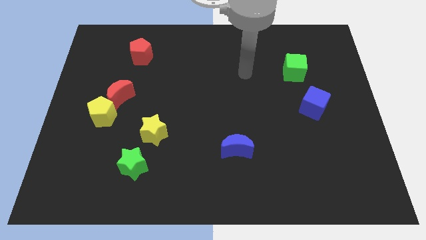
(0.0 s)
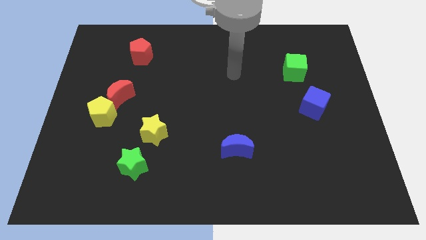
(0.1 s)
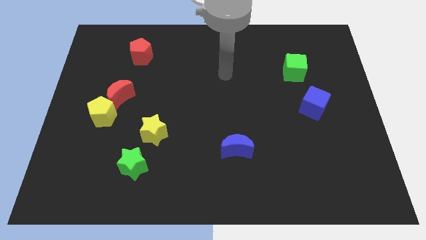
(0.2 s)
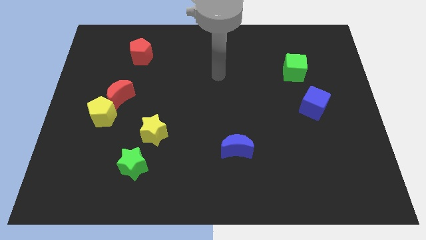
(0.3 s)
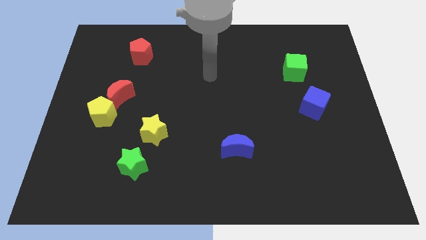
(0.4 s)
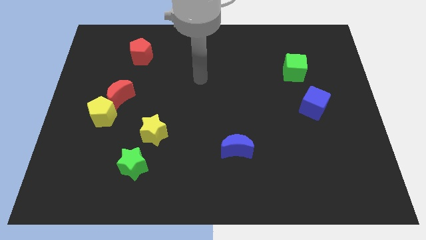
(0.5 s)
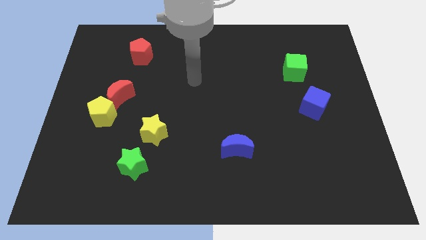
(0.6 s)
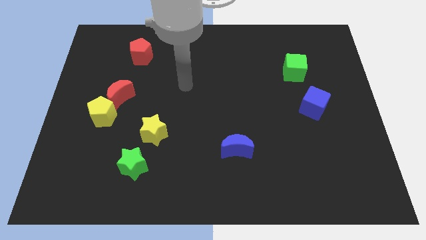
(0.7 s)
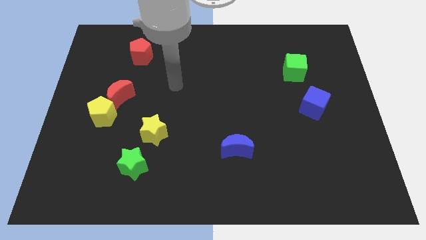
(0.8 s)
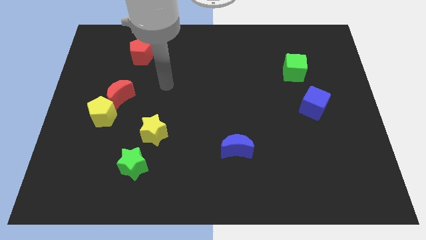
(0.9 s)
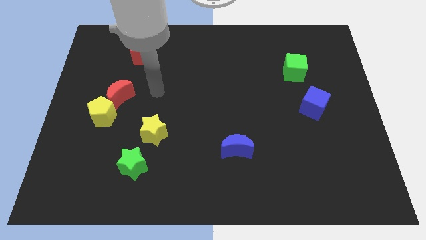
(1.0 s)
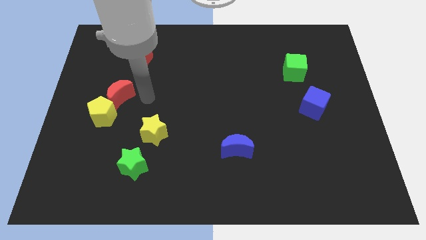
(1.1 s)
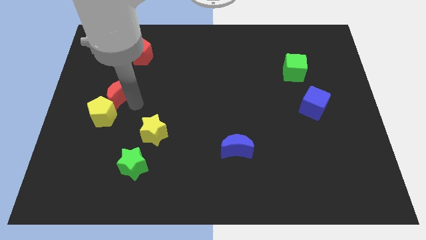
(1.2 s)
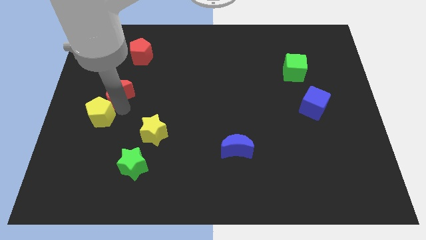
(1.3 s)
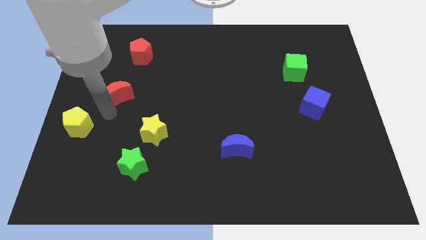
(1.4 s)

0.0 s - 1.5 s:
pull the red moon apart from the yellow pentagon

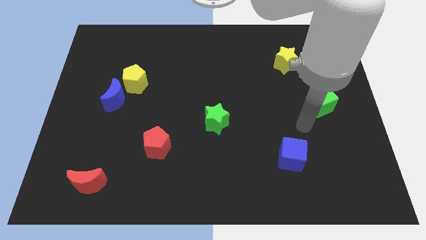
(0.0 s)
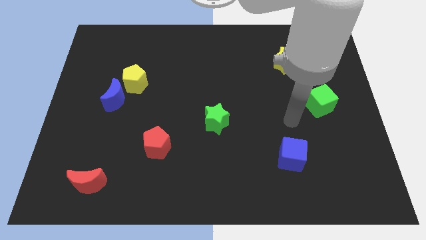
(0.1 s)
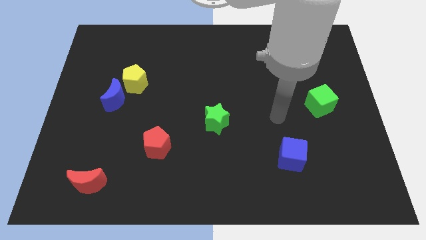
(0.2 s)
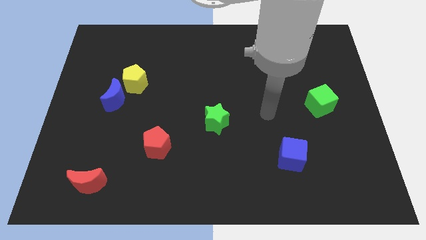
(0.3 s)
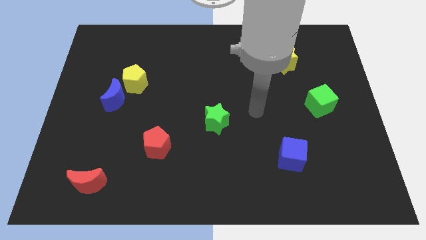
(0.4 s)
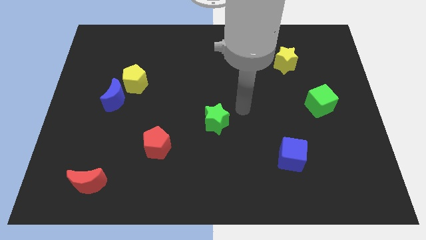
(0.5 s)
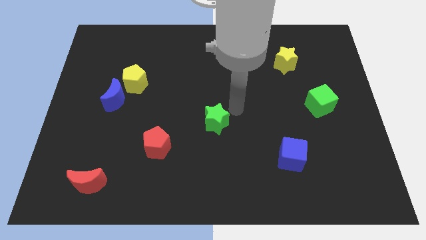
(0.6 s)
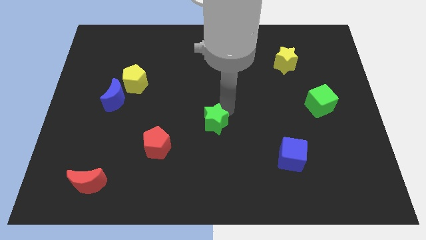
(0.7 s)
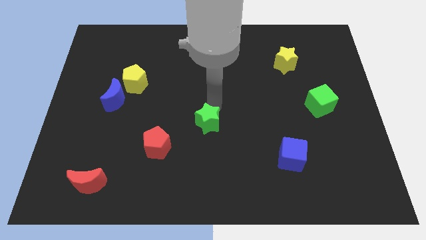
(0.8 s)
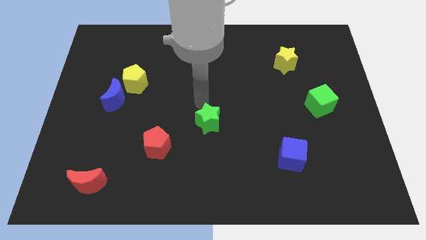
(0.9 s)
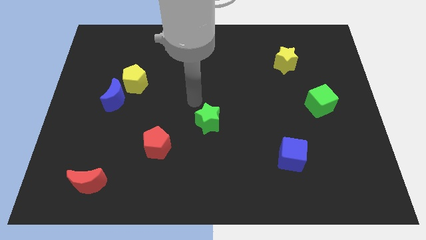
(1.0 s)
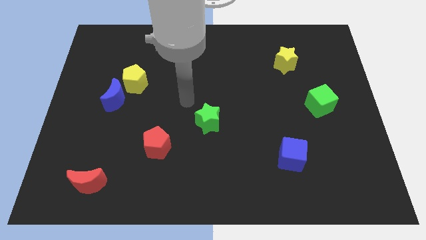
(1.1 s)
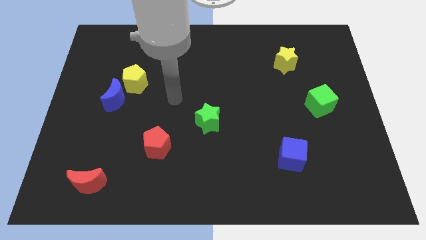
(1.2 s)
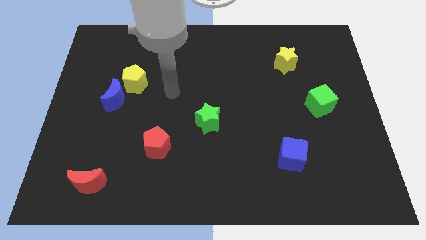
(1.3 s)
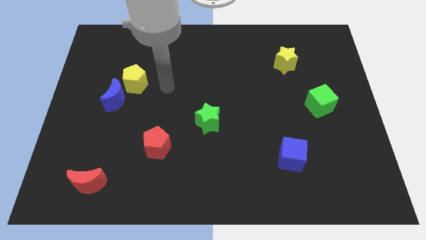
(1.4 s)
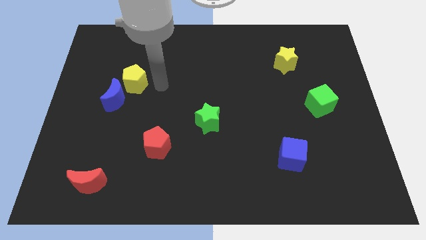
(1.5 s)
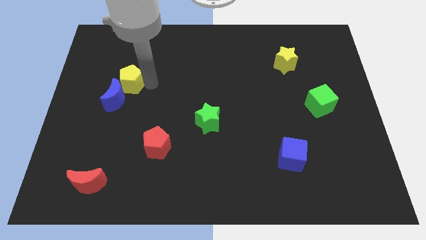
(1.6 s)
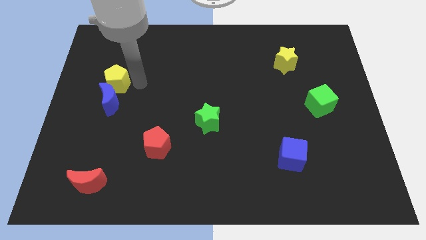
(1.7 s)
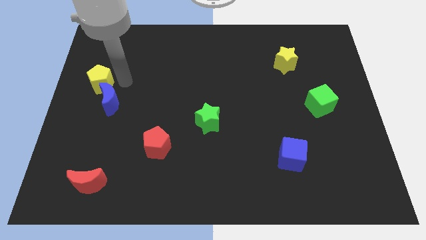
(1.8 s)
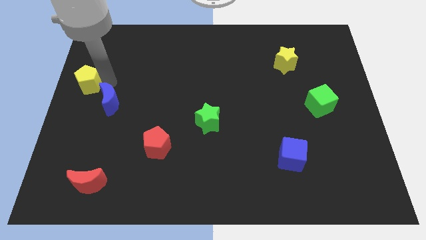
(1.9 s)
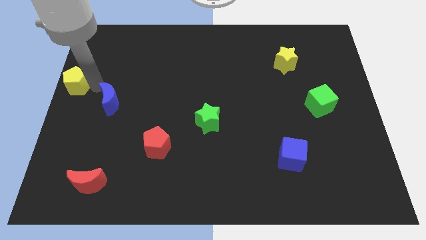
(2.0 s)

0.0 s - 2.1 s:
move the blue moon away from the yellow pentagon

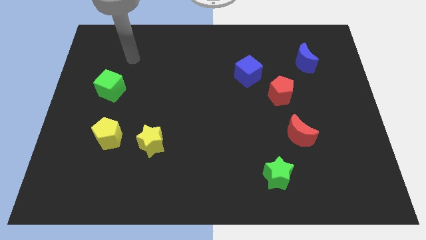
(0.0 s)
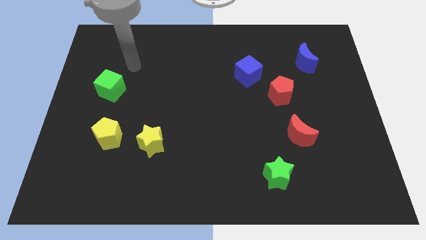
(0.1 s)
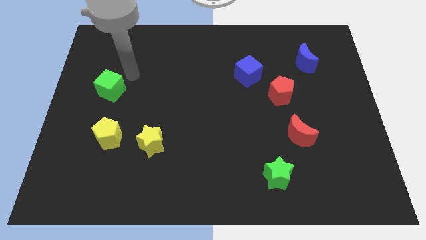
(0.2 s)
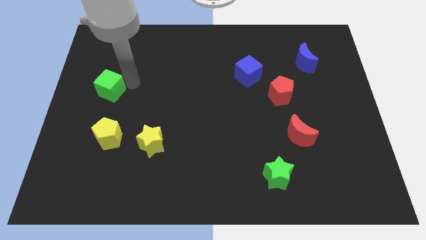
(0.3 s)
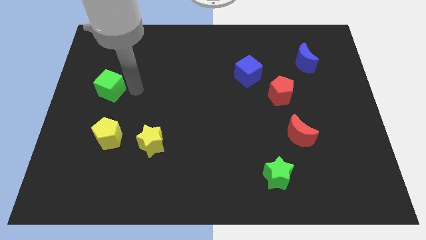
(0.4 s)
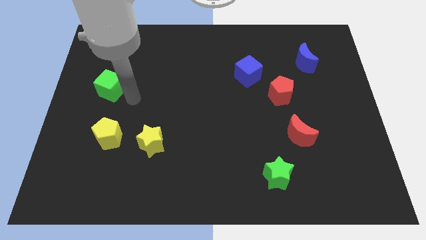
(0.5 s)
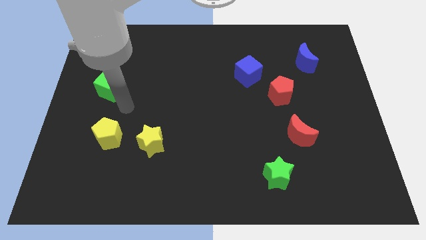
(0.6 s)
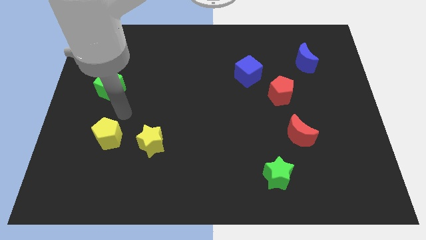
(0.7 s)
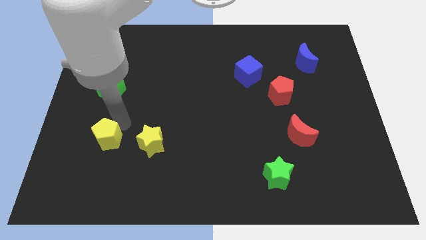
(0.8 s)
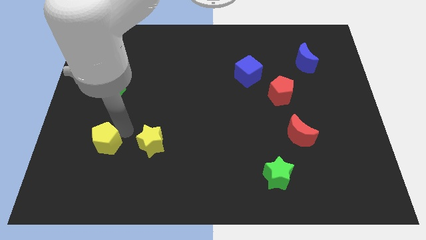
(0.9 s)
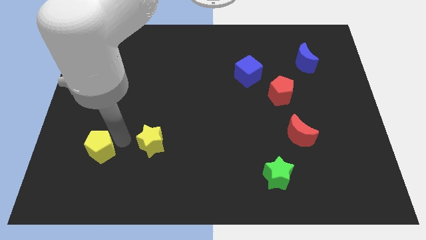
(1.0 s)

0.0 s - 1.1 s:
pull the yellow star apart from the yellow pentagon

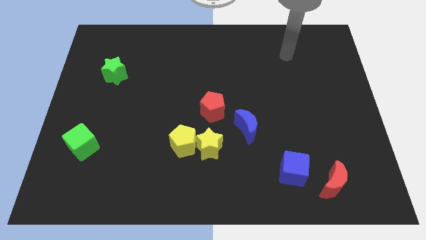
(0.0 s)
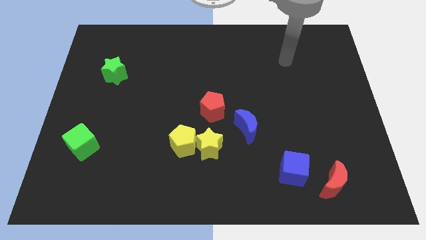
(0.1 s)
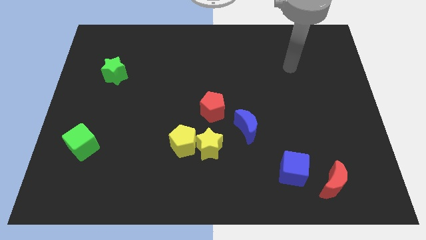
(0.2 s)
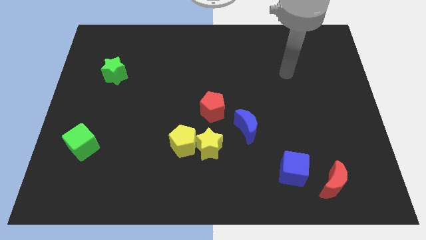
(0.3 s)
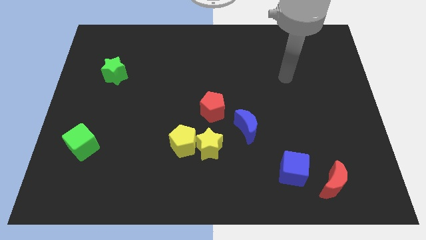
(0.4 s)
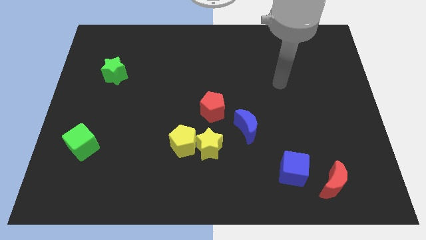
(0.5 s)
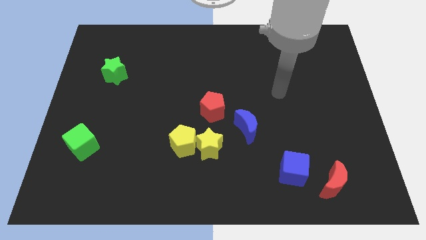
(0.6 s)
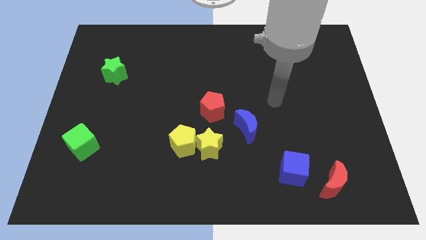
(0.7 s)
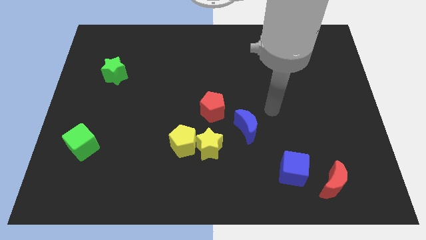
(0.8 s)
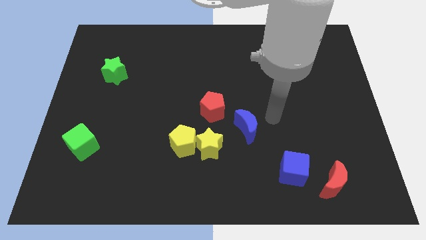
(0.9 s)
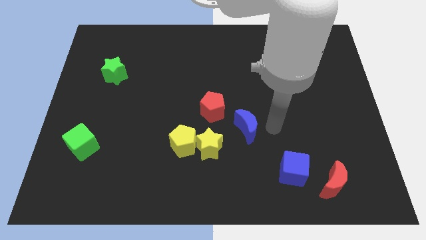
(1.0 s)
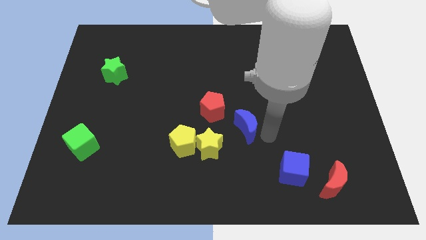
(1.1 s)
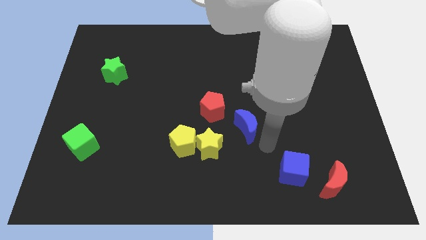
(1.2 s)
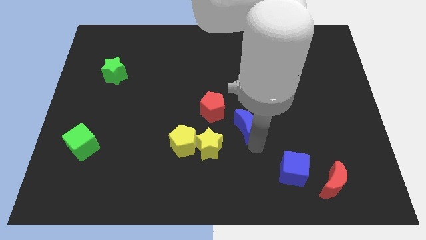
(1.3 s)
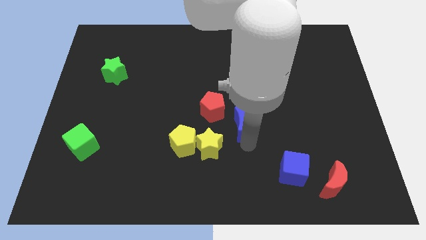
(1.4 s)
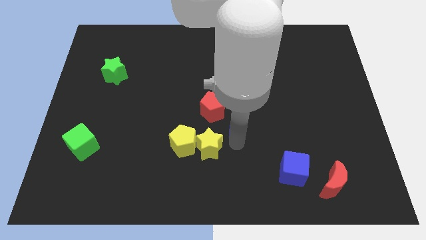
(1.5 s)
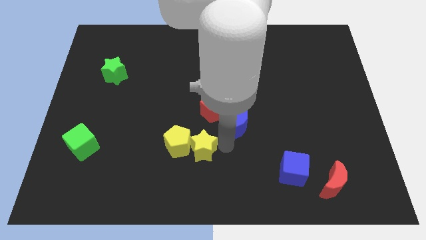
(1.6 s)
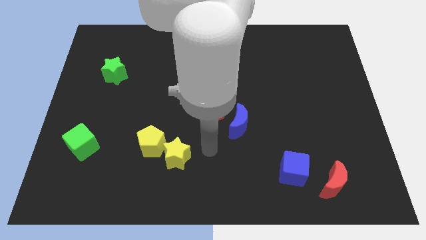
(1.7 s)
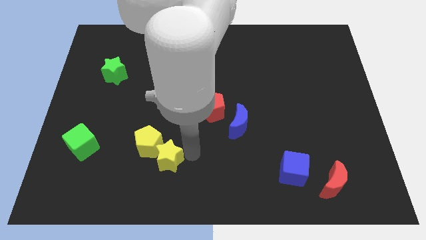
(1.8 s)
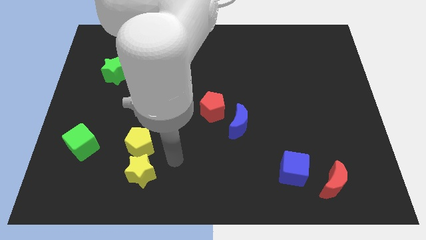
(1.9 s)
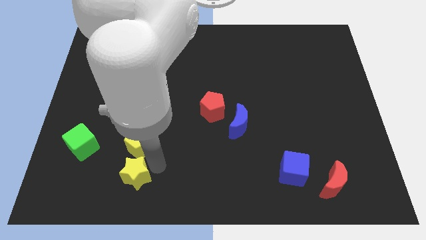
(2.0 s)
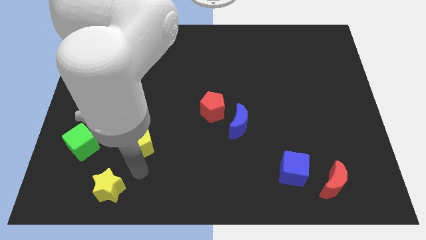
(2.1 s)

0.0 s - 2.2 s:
move the yellow pentagon away from the yellow star

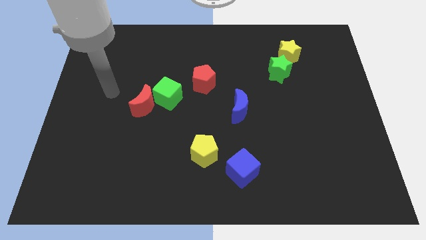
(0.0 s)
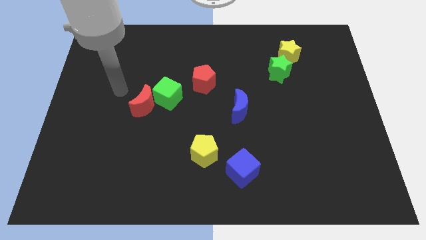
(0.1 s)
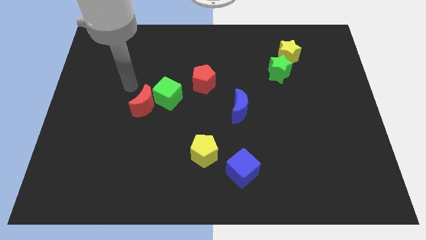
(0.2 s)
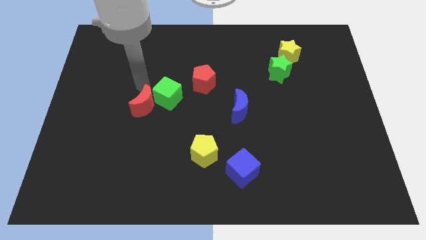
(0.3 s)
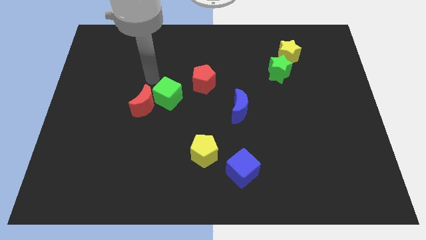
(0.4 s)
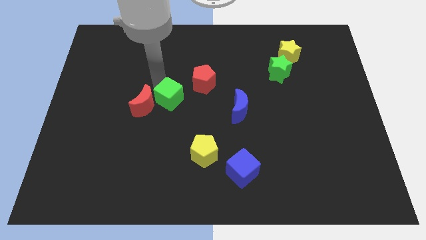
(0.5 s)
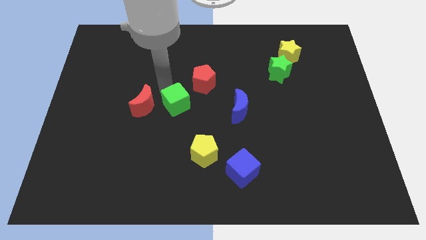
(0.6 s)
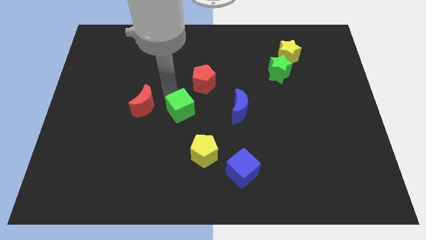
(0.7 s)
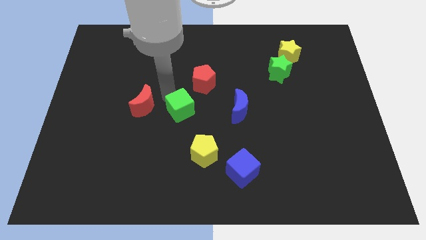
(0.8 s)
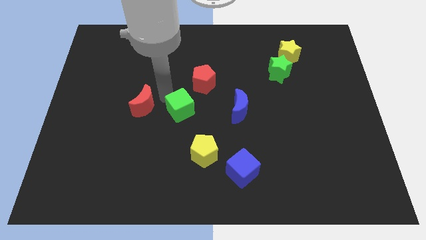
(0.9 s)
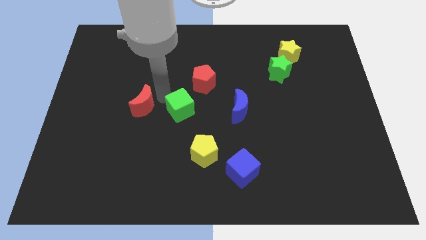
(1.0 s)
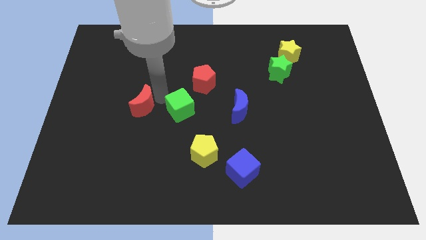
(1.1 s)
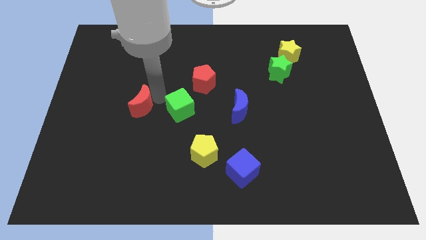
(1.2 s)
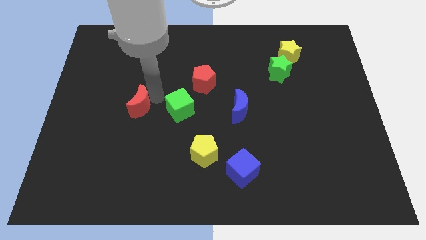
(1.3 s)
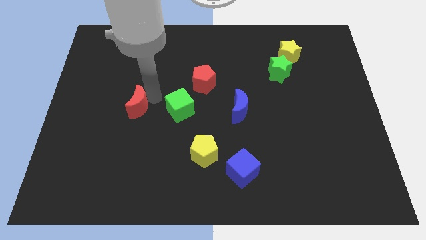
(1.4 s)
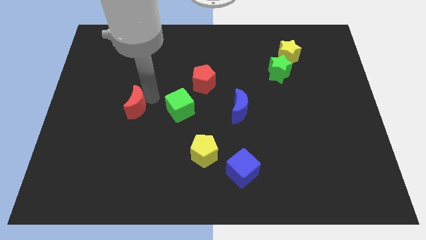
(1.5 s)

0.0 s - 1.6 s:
pull the red moon apart from the green cube

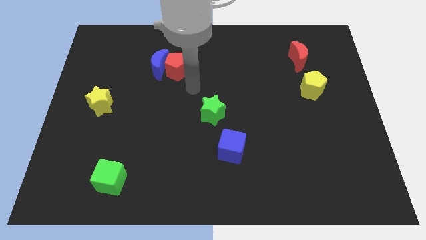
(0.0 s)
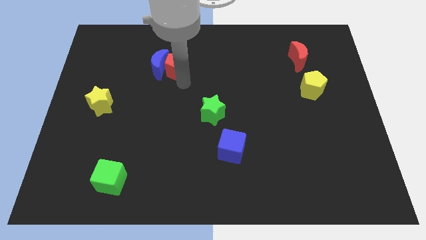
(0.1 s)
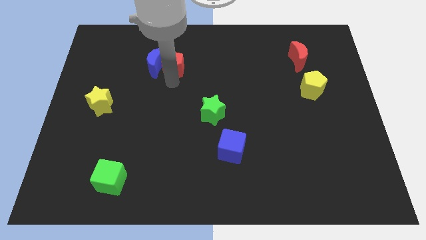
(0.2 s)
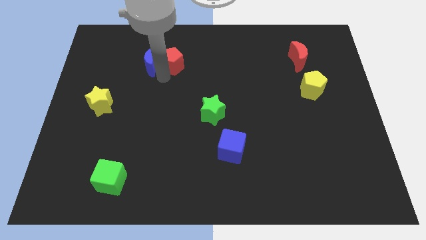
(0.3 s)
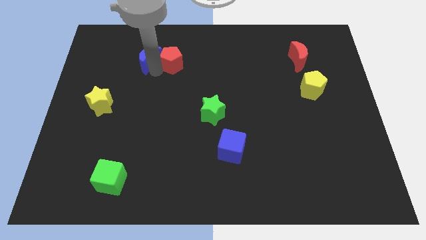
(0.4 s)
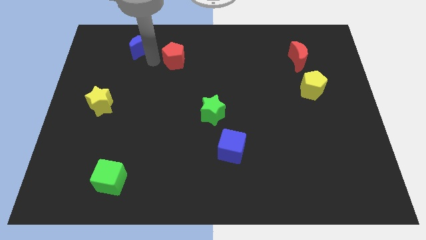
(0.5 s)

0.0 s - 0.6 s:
separate the red pentagon from the blue moon

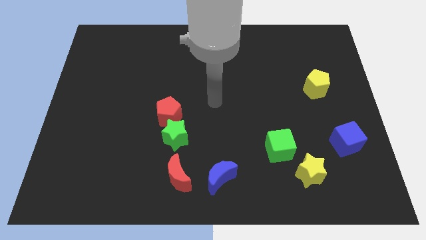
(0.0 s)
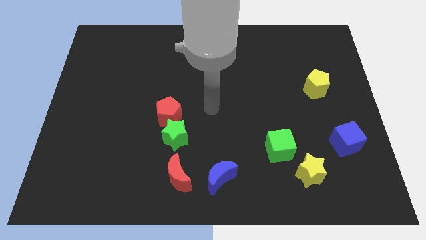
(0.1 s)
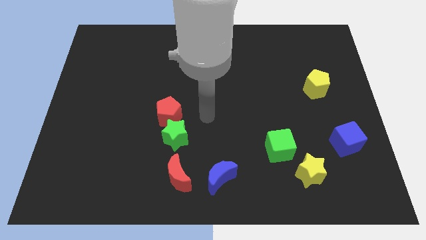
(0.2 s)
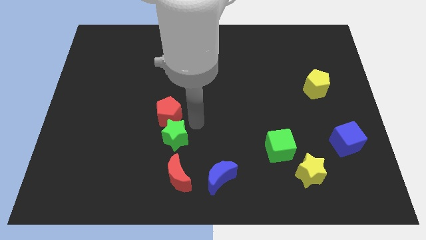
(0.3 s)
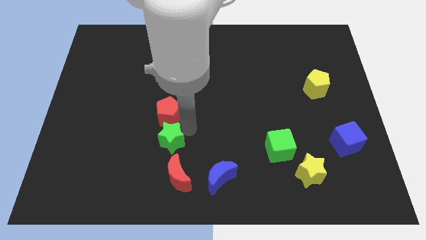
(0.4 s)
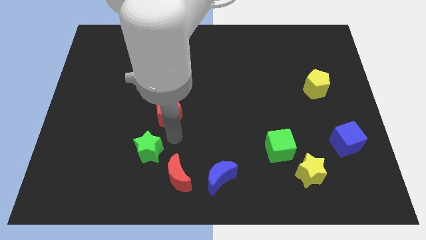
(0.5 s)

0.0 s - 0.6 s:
separate the red pentagon from the green star
